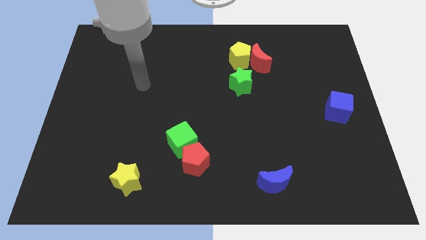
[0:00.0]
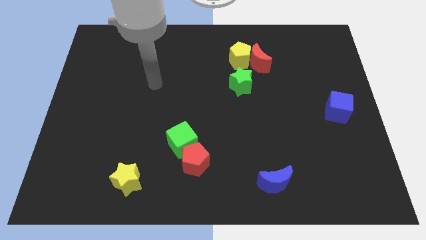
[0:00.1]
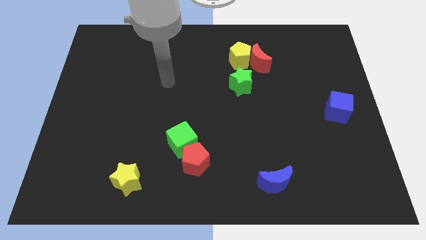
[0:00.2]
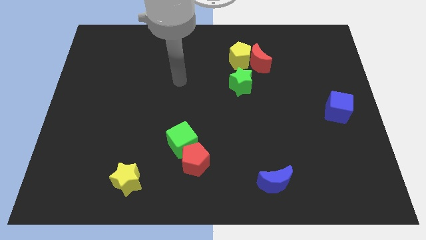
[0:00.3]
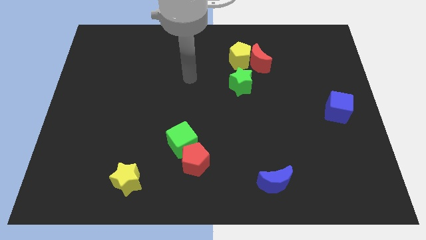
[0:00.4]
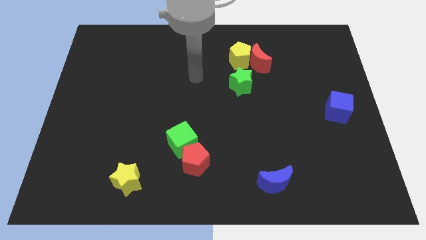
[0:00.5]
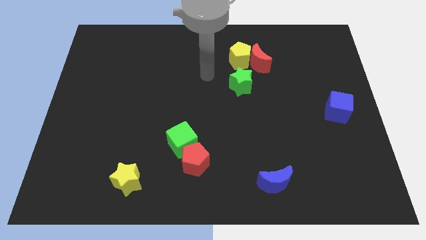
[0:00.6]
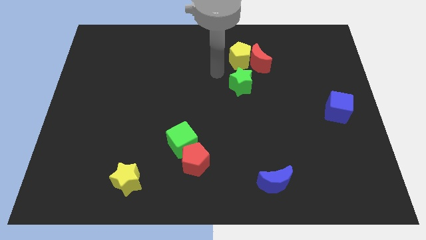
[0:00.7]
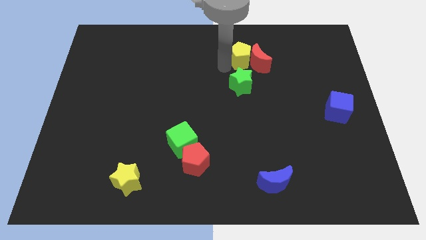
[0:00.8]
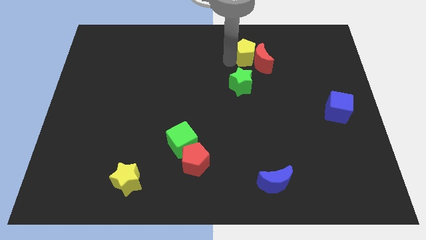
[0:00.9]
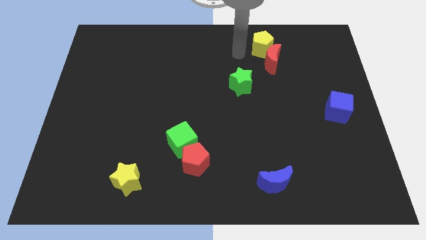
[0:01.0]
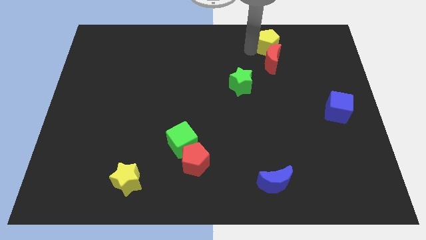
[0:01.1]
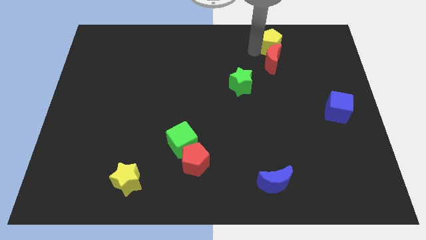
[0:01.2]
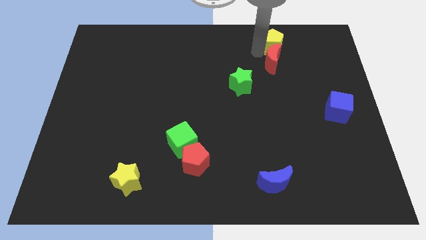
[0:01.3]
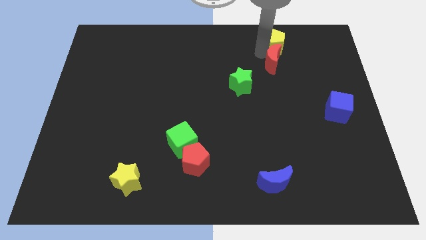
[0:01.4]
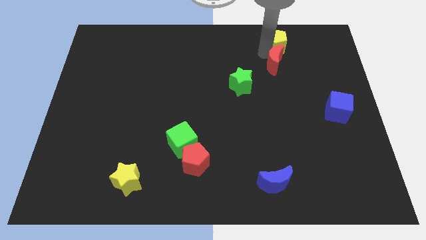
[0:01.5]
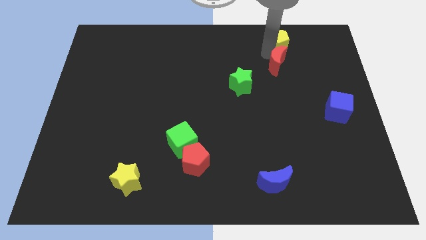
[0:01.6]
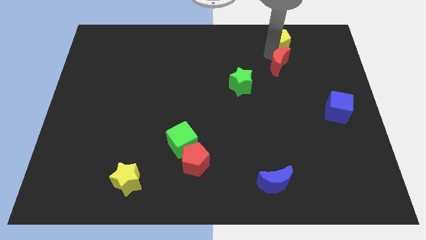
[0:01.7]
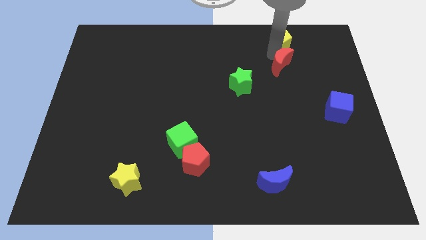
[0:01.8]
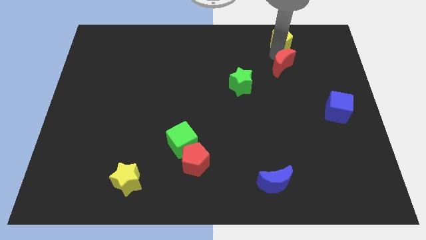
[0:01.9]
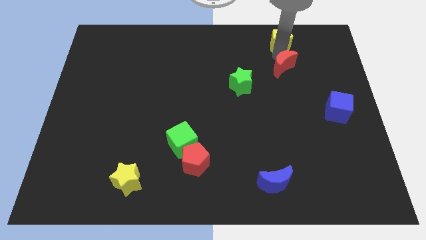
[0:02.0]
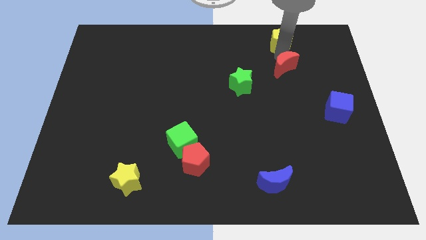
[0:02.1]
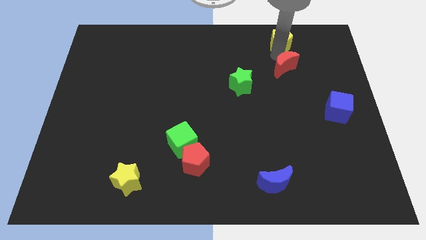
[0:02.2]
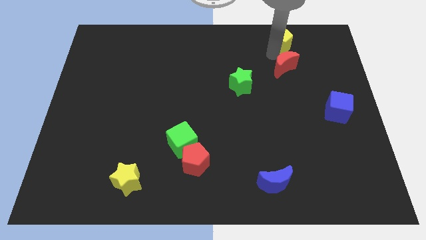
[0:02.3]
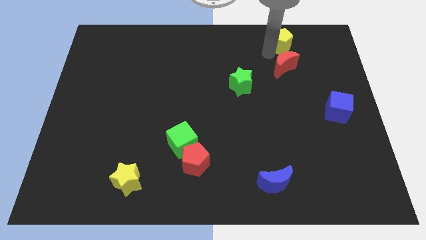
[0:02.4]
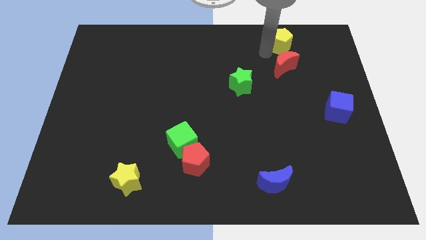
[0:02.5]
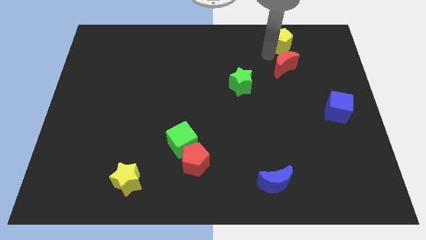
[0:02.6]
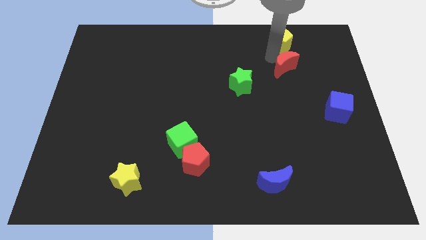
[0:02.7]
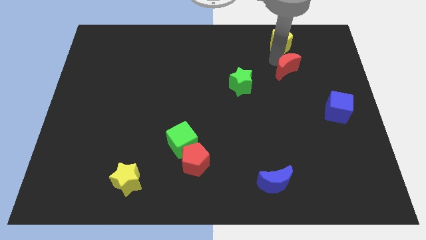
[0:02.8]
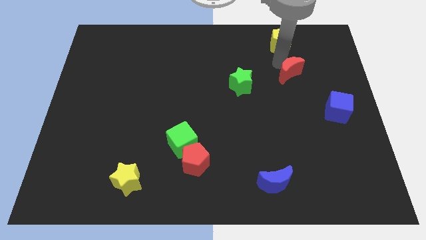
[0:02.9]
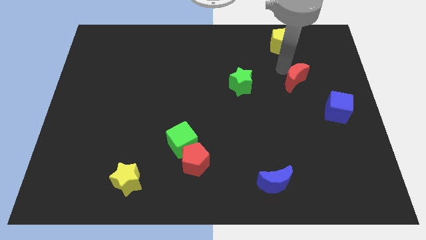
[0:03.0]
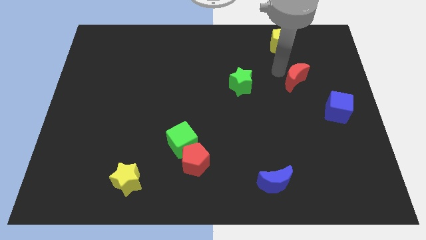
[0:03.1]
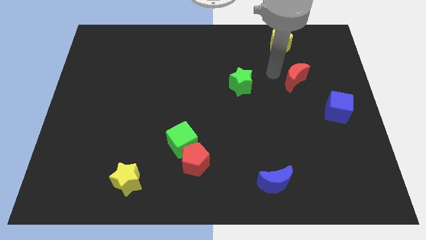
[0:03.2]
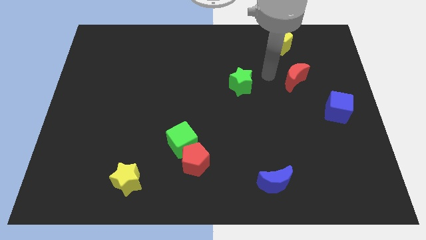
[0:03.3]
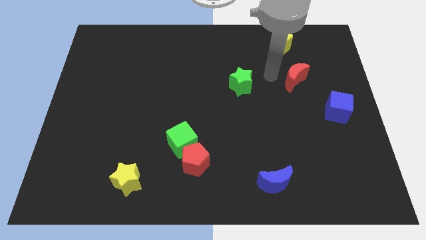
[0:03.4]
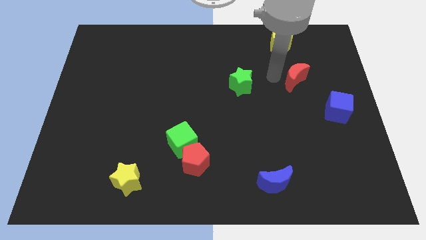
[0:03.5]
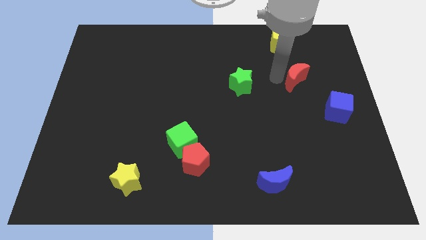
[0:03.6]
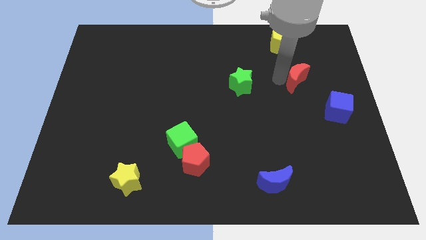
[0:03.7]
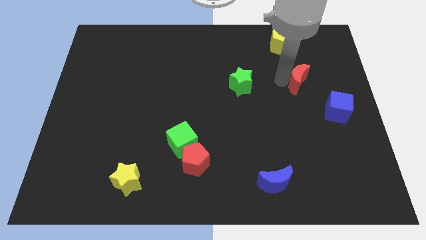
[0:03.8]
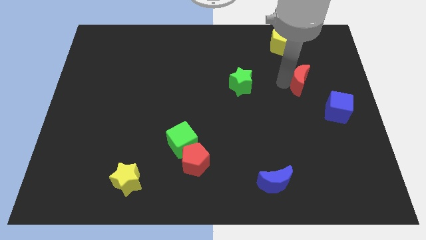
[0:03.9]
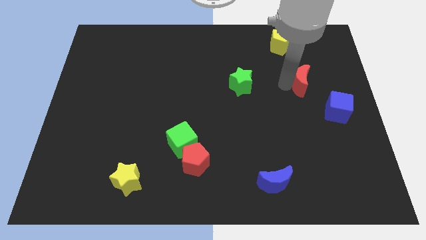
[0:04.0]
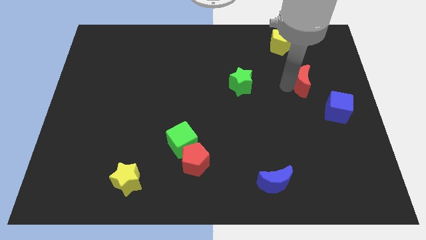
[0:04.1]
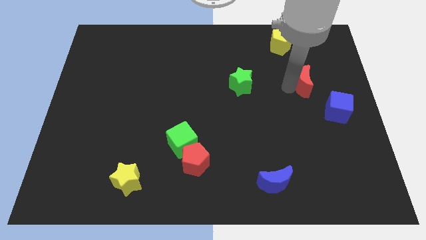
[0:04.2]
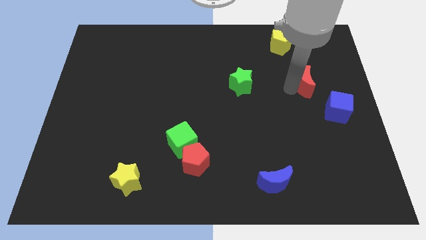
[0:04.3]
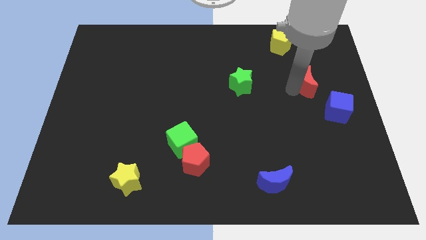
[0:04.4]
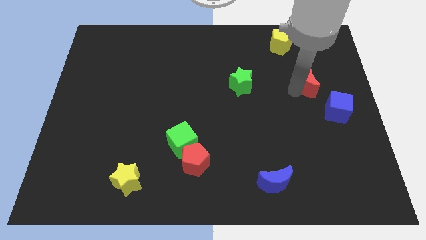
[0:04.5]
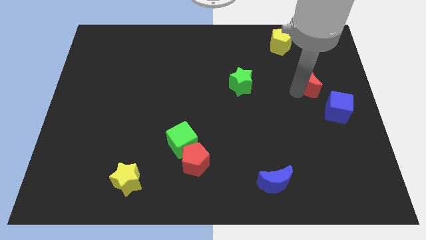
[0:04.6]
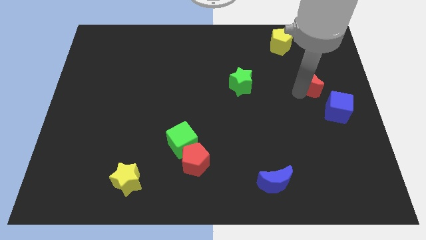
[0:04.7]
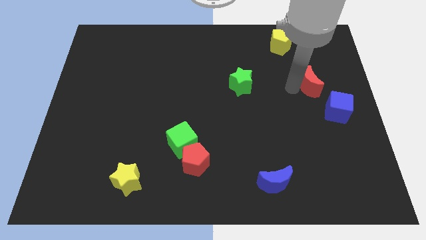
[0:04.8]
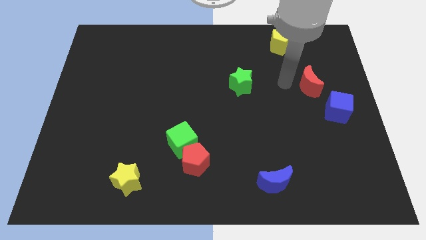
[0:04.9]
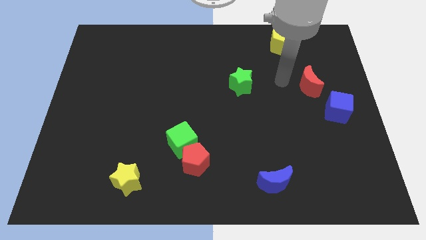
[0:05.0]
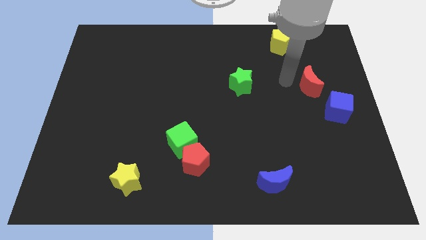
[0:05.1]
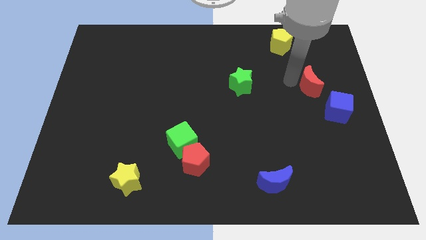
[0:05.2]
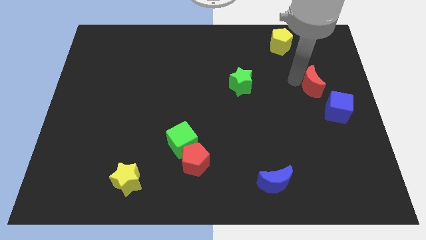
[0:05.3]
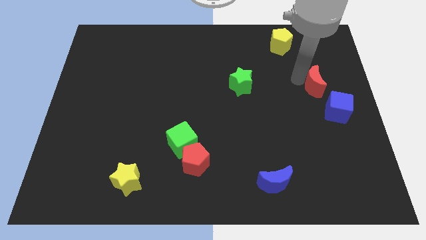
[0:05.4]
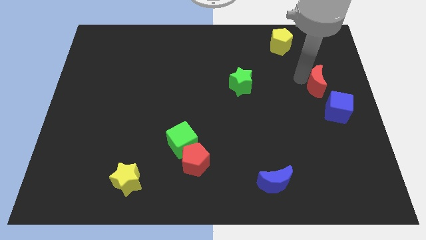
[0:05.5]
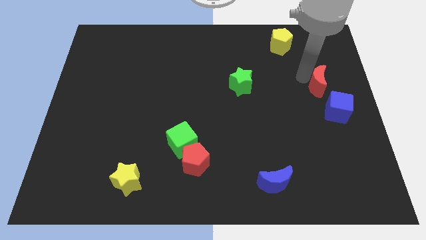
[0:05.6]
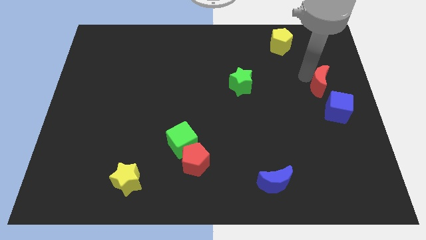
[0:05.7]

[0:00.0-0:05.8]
put the red moon to the right side of the board

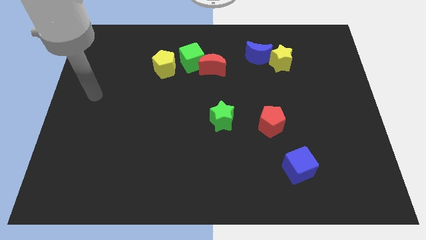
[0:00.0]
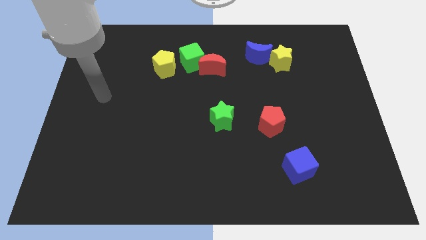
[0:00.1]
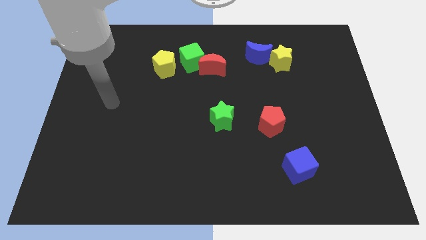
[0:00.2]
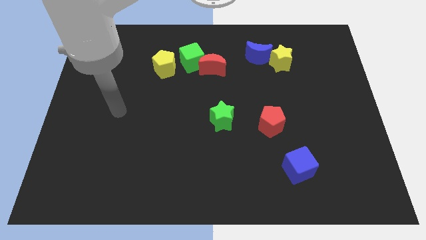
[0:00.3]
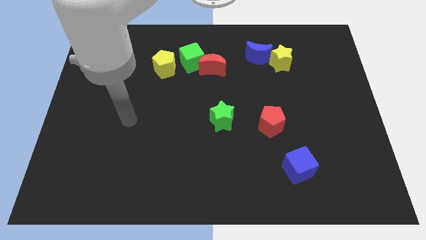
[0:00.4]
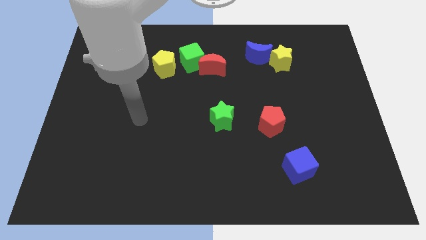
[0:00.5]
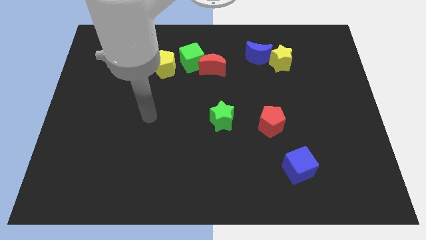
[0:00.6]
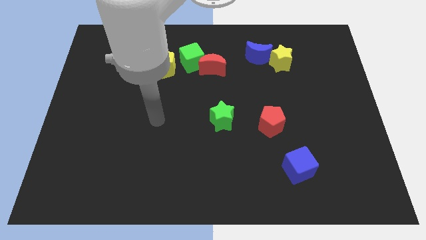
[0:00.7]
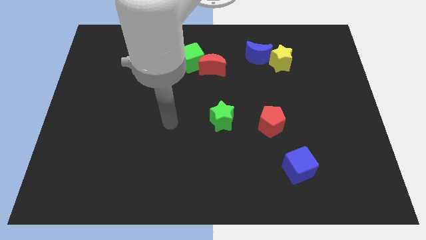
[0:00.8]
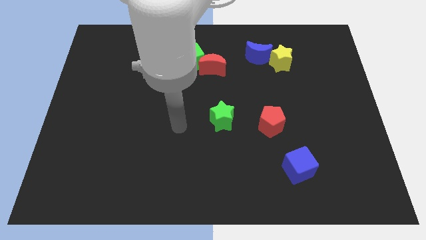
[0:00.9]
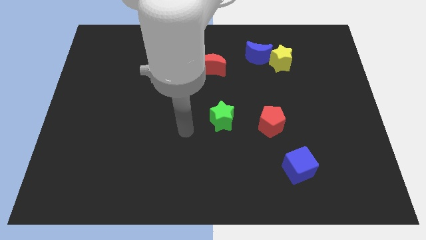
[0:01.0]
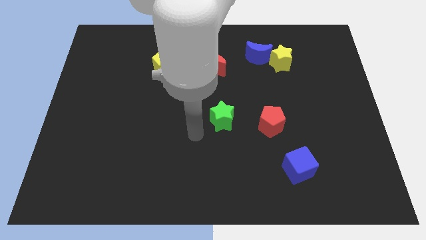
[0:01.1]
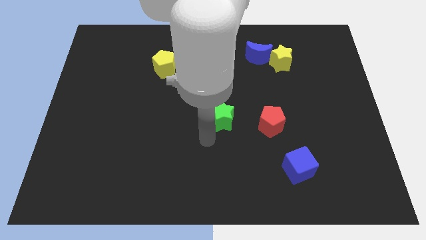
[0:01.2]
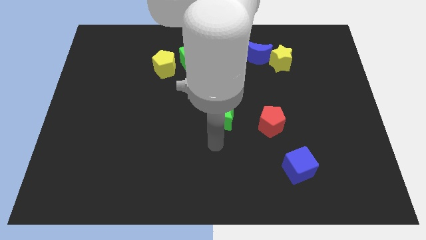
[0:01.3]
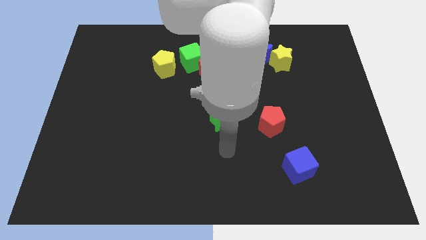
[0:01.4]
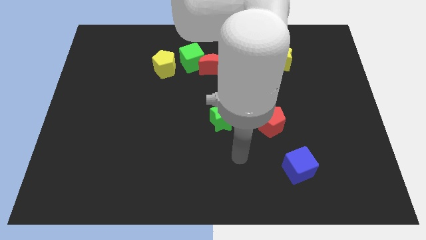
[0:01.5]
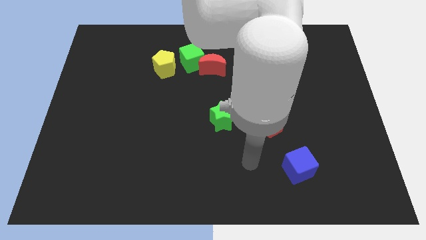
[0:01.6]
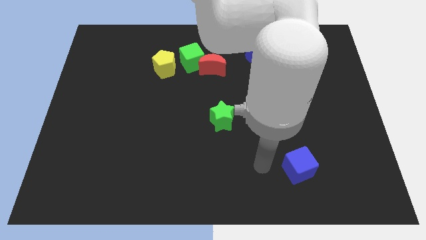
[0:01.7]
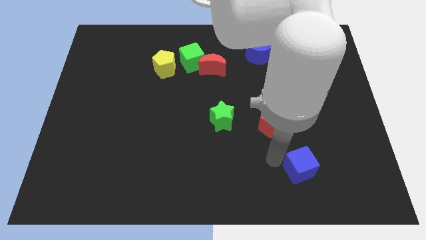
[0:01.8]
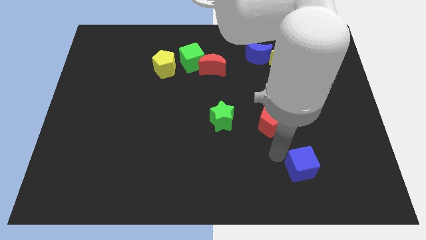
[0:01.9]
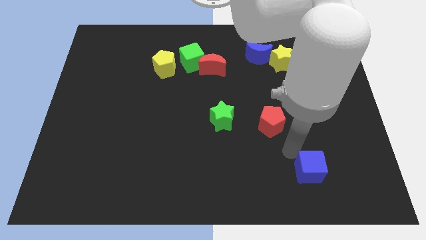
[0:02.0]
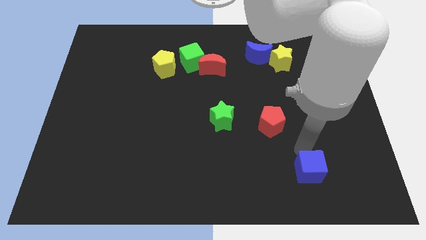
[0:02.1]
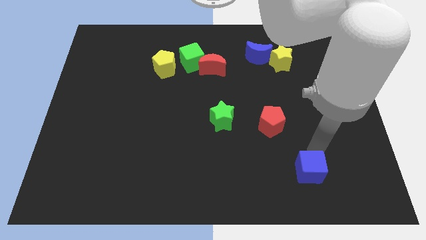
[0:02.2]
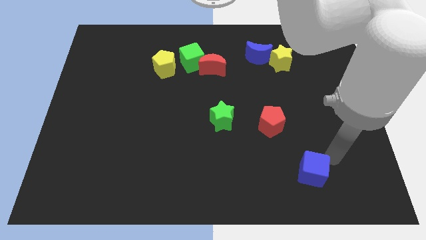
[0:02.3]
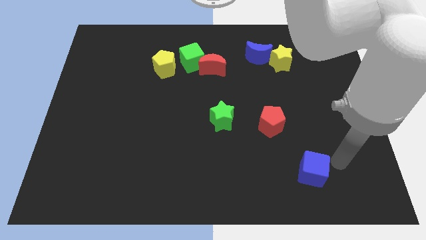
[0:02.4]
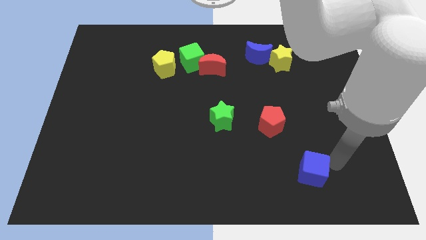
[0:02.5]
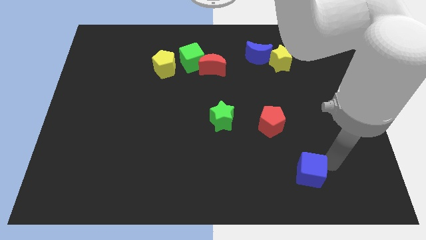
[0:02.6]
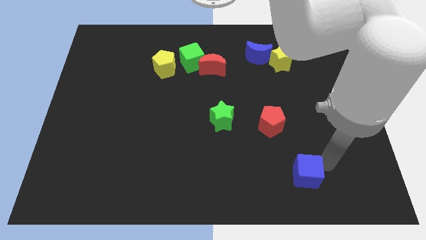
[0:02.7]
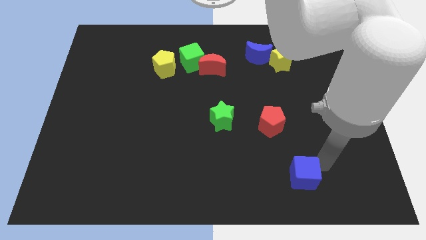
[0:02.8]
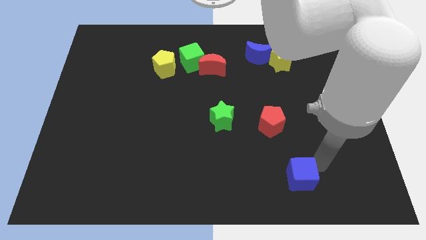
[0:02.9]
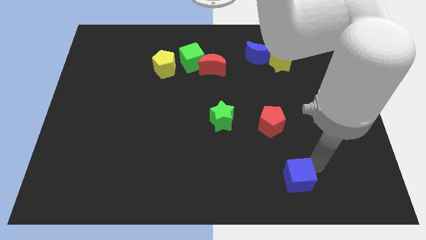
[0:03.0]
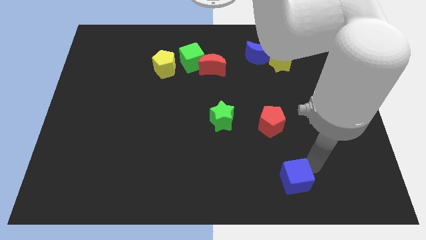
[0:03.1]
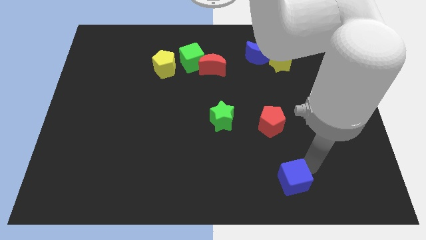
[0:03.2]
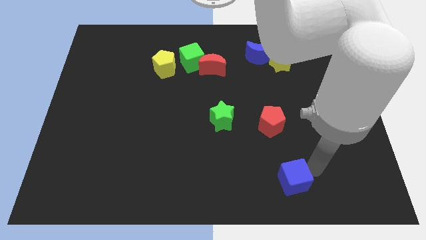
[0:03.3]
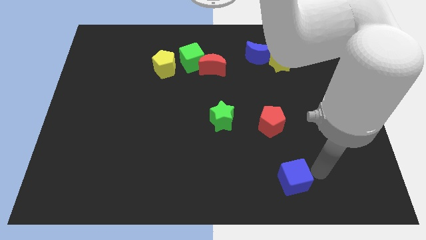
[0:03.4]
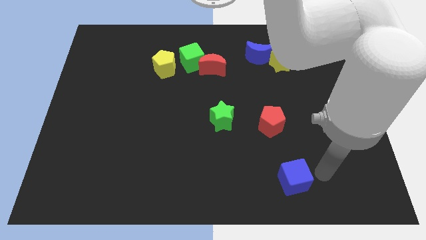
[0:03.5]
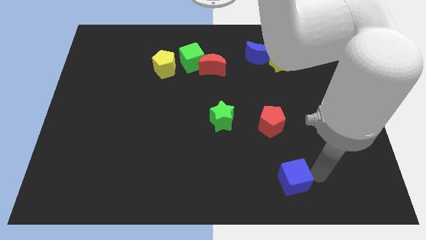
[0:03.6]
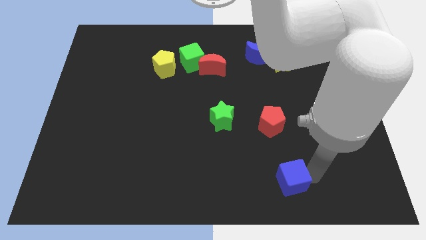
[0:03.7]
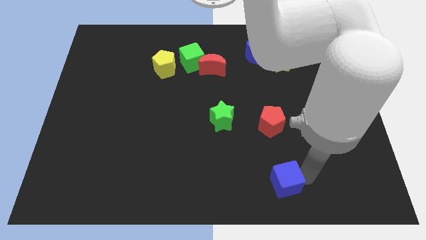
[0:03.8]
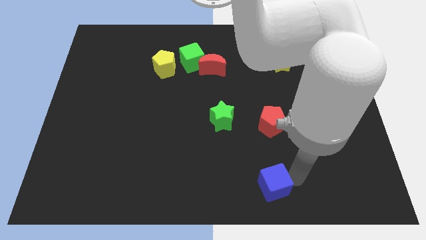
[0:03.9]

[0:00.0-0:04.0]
put the blue cube to the bottom side
